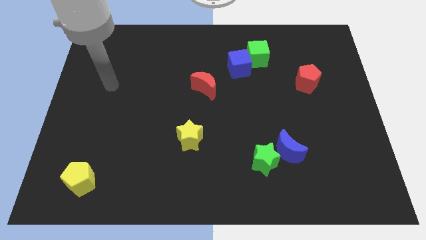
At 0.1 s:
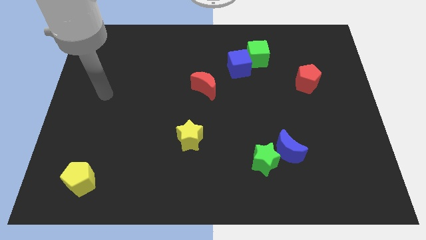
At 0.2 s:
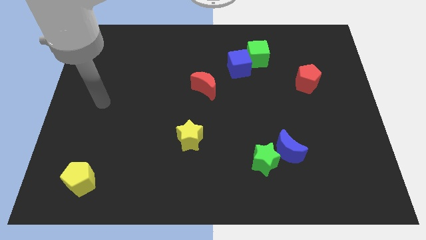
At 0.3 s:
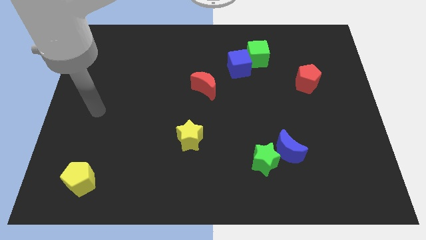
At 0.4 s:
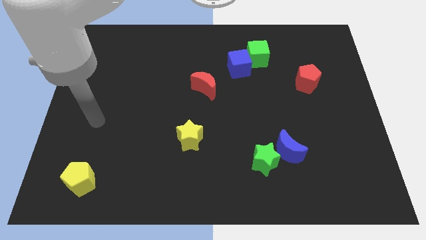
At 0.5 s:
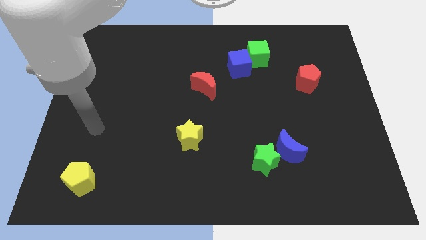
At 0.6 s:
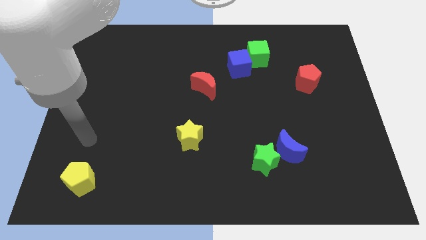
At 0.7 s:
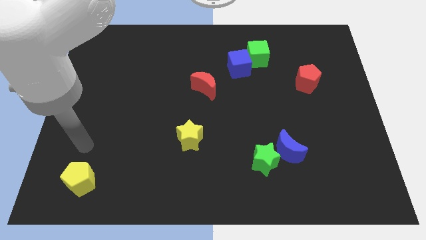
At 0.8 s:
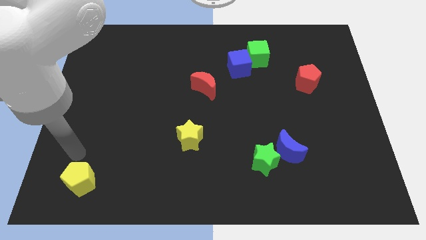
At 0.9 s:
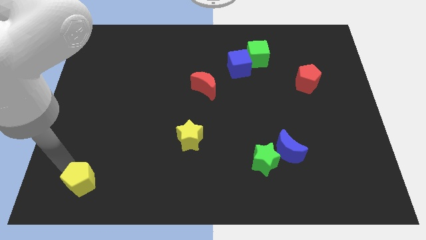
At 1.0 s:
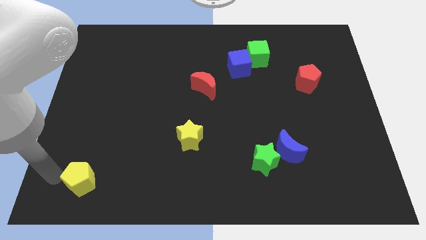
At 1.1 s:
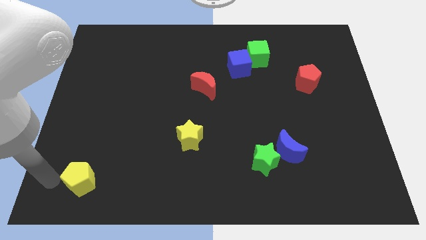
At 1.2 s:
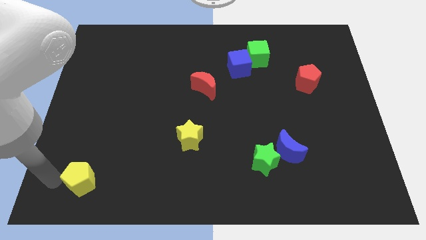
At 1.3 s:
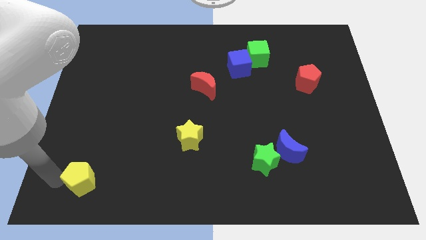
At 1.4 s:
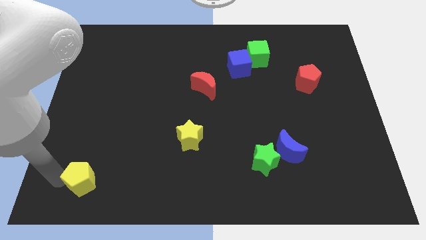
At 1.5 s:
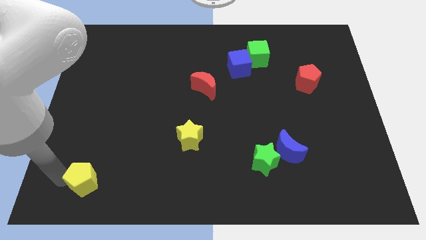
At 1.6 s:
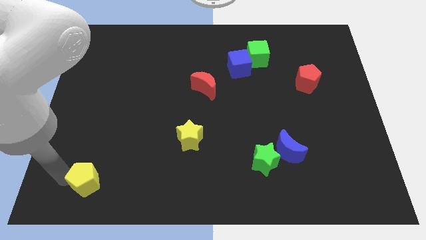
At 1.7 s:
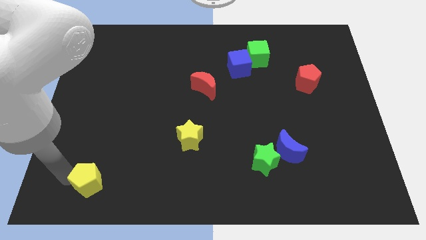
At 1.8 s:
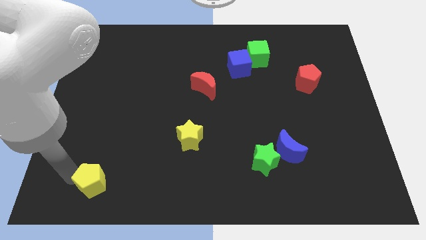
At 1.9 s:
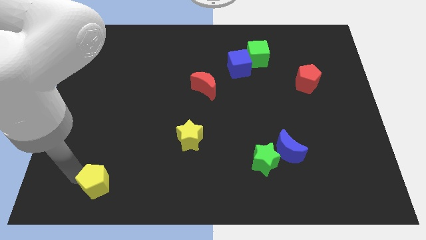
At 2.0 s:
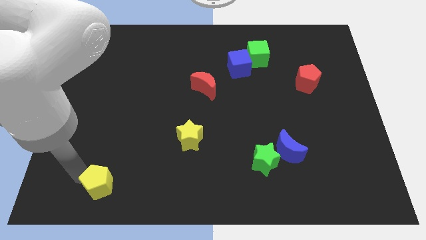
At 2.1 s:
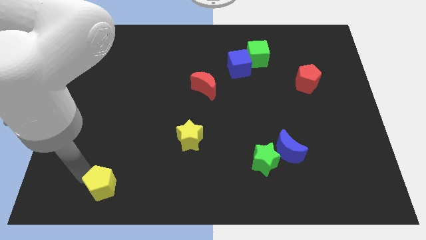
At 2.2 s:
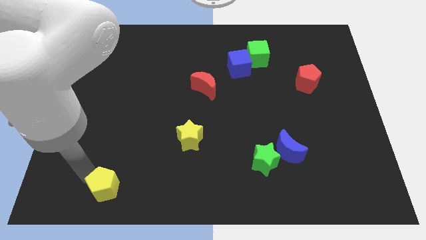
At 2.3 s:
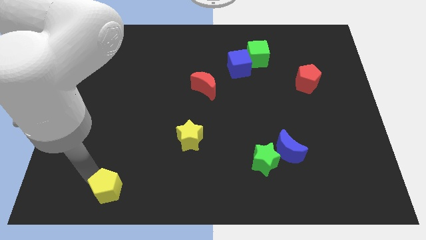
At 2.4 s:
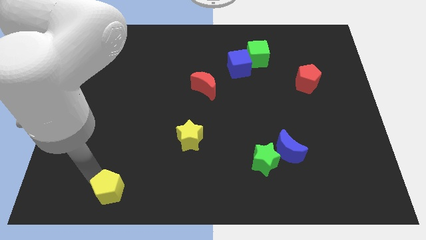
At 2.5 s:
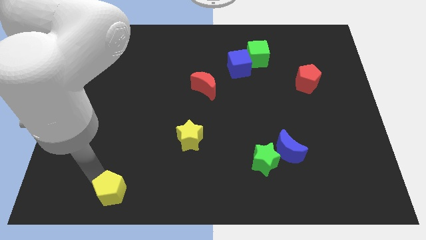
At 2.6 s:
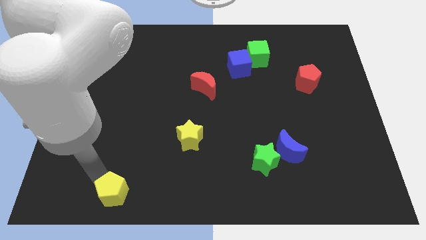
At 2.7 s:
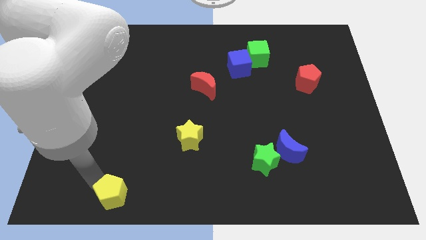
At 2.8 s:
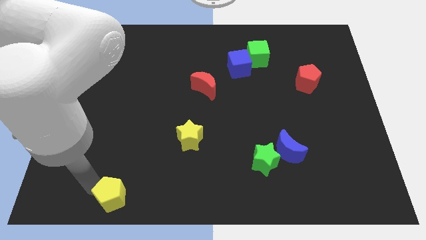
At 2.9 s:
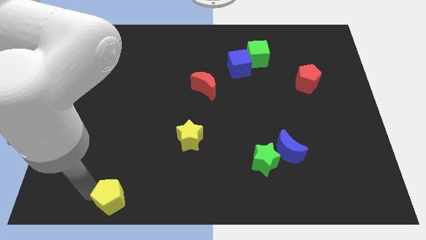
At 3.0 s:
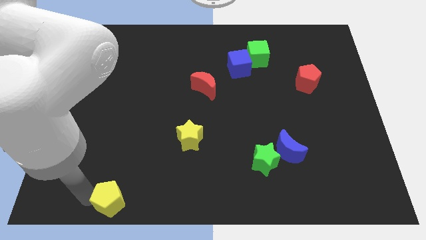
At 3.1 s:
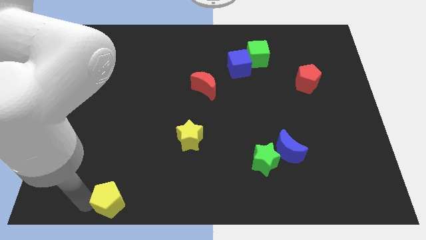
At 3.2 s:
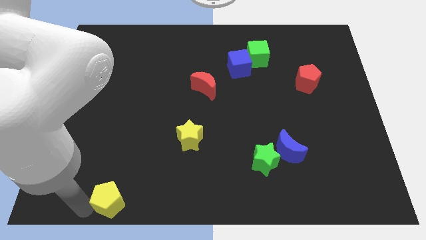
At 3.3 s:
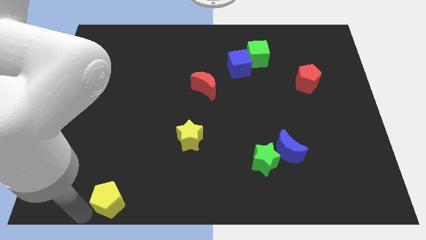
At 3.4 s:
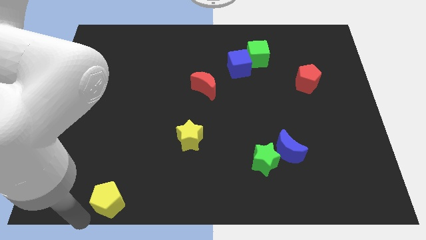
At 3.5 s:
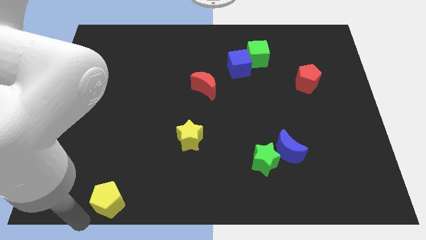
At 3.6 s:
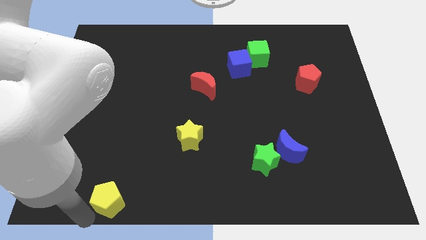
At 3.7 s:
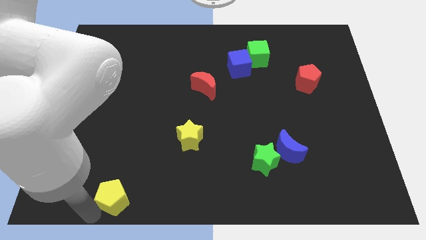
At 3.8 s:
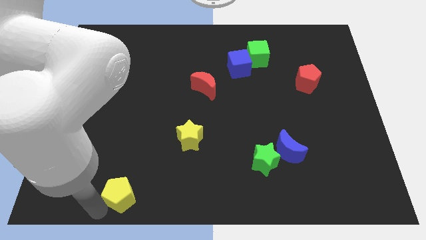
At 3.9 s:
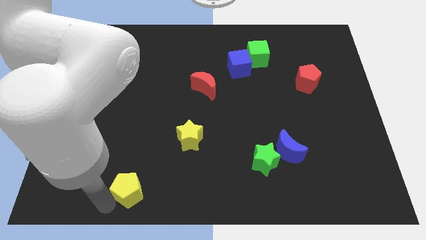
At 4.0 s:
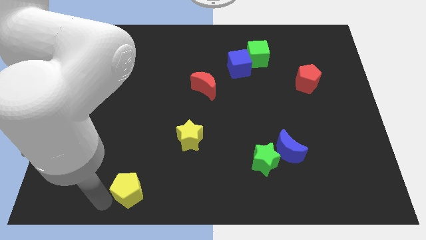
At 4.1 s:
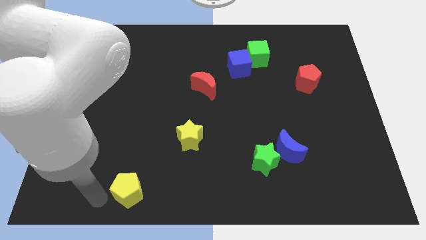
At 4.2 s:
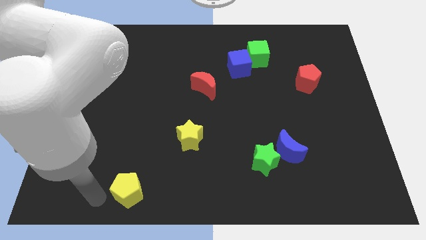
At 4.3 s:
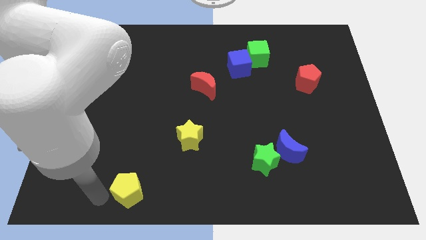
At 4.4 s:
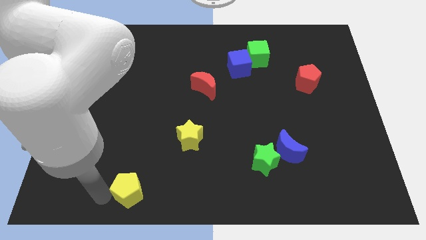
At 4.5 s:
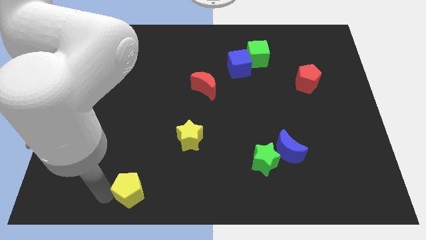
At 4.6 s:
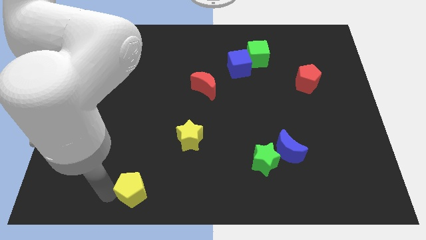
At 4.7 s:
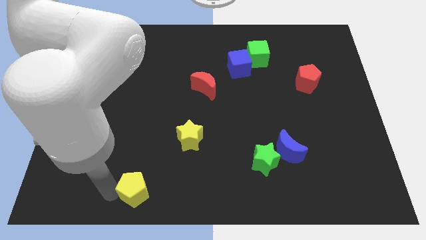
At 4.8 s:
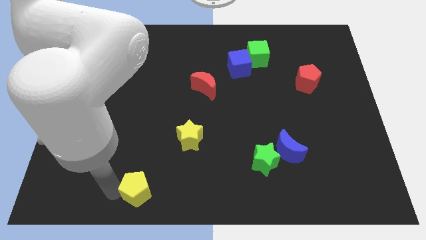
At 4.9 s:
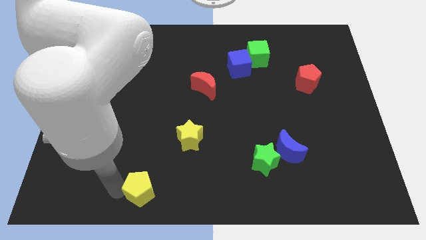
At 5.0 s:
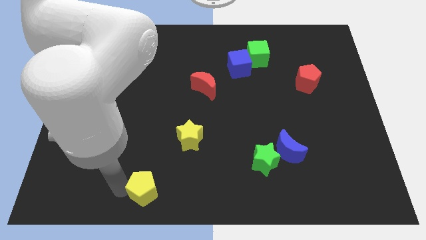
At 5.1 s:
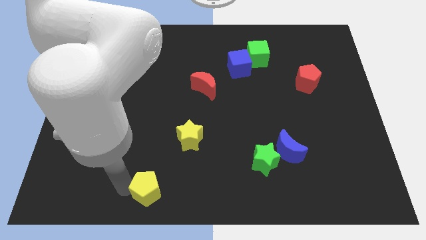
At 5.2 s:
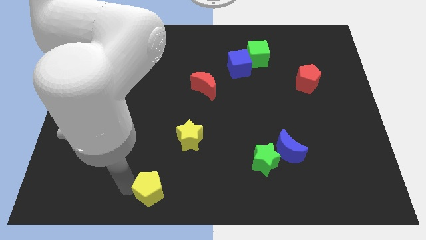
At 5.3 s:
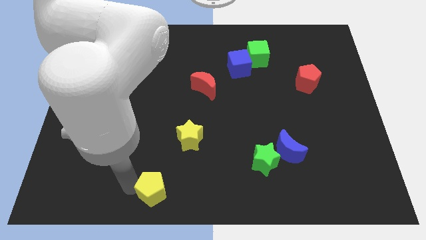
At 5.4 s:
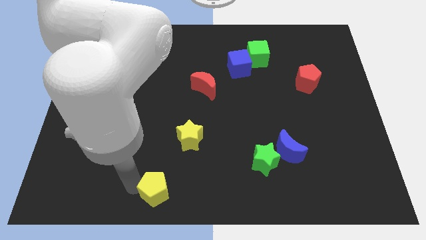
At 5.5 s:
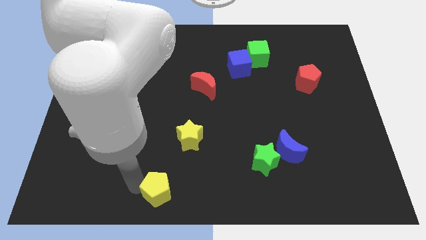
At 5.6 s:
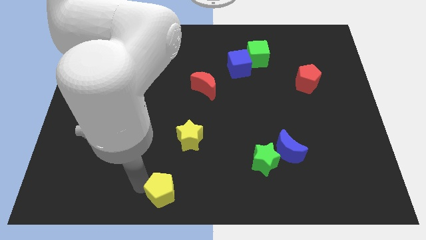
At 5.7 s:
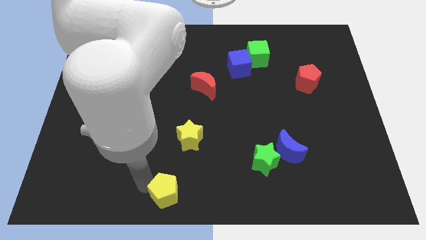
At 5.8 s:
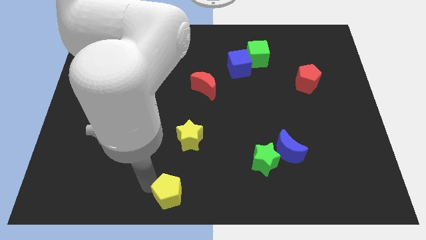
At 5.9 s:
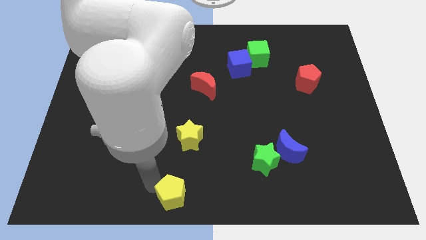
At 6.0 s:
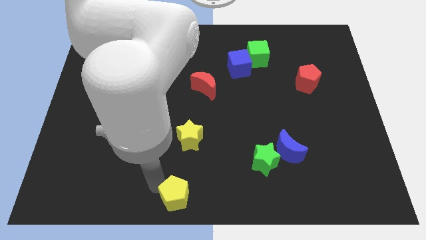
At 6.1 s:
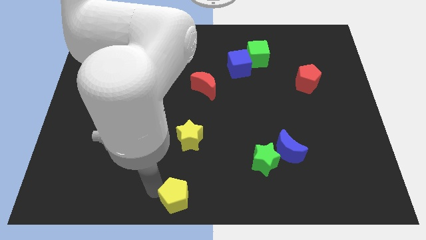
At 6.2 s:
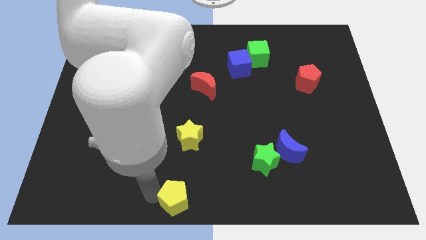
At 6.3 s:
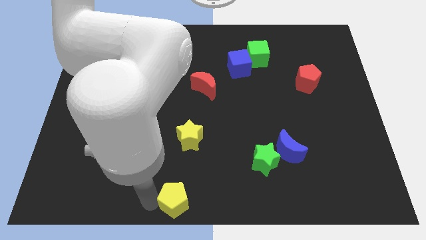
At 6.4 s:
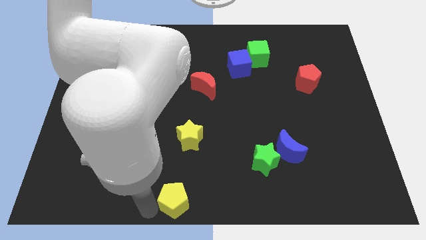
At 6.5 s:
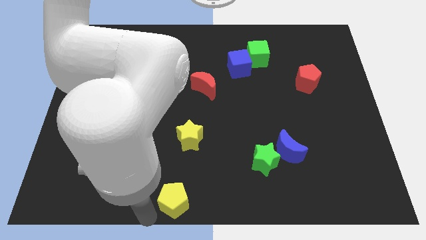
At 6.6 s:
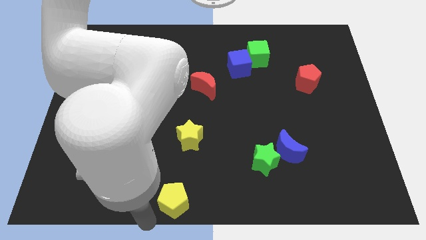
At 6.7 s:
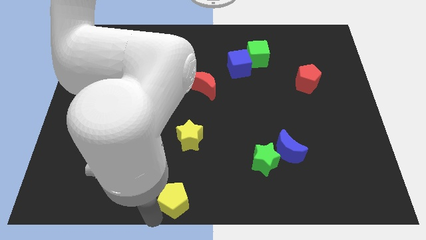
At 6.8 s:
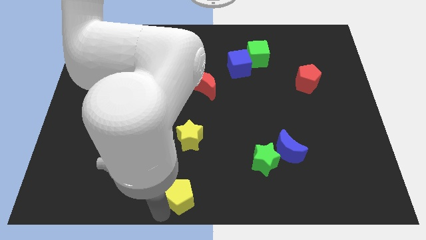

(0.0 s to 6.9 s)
push the yellow pentagon right

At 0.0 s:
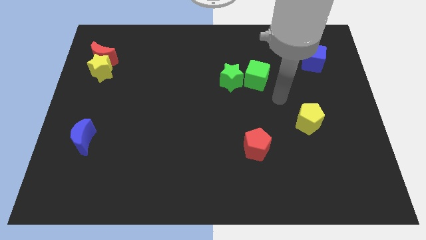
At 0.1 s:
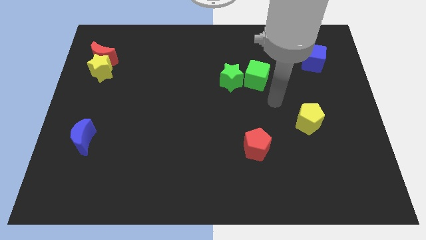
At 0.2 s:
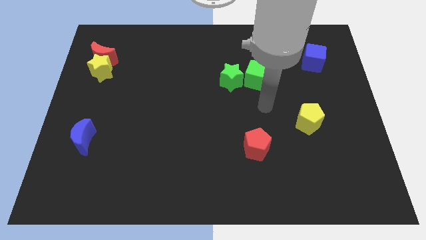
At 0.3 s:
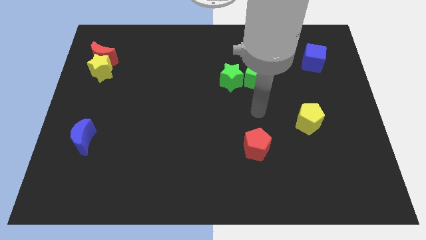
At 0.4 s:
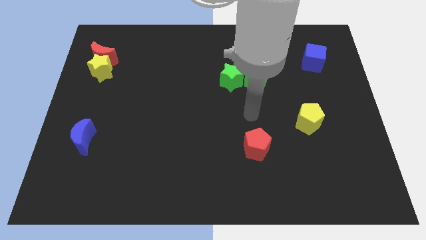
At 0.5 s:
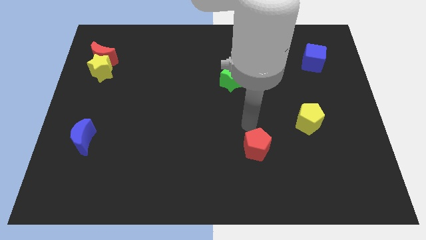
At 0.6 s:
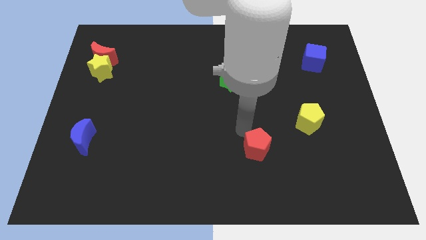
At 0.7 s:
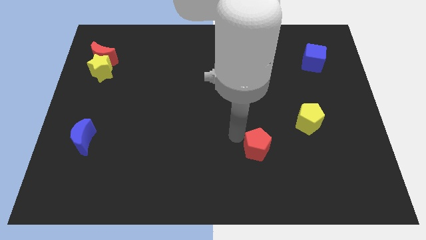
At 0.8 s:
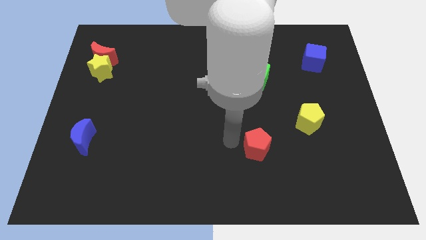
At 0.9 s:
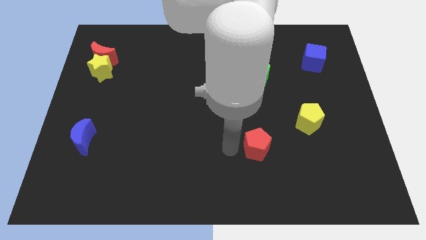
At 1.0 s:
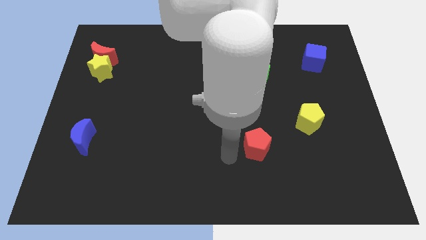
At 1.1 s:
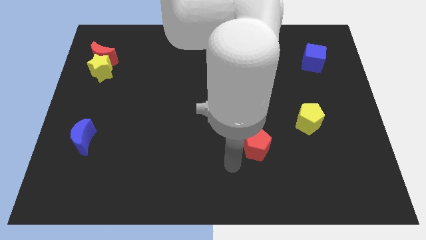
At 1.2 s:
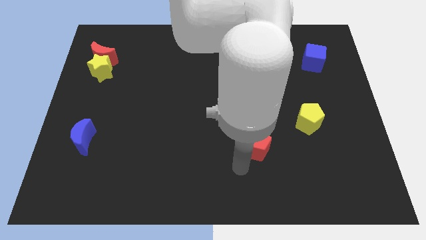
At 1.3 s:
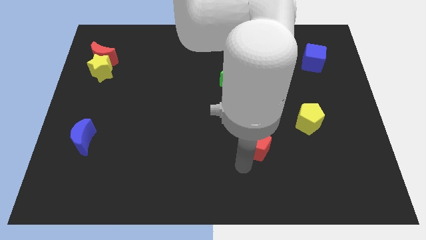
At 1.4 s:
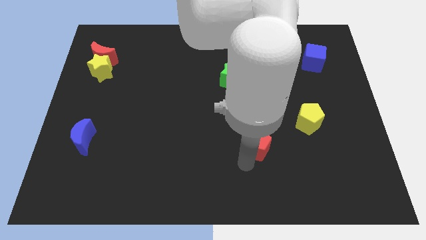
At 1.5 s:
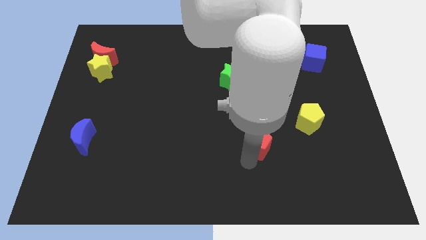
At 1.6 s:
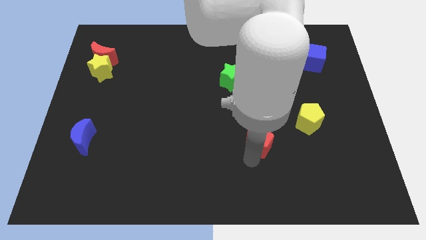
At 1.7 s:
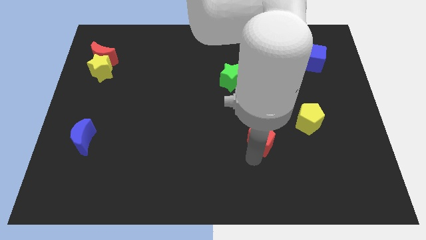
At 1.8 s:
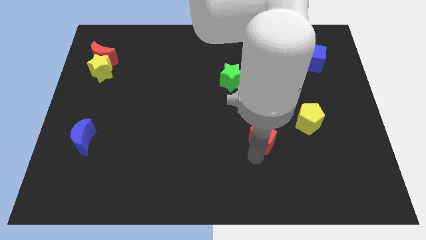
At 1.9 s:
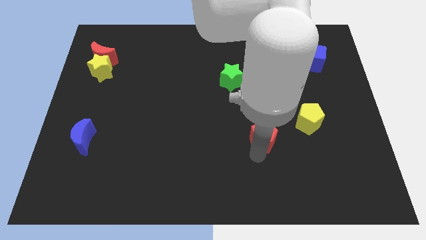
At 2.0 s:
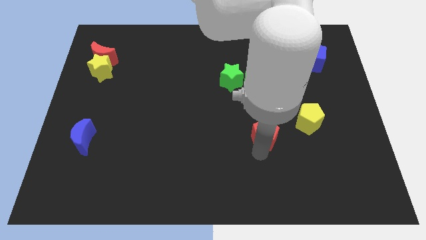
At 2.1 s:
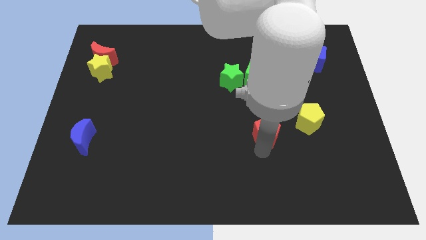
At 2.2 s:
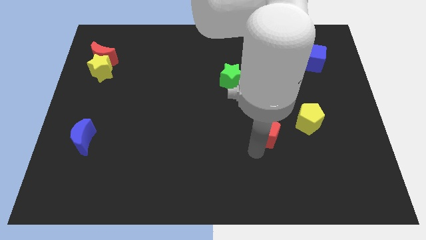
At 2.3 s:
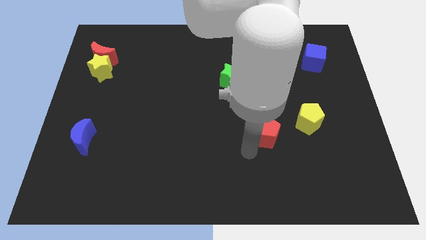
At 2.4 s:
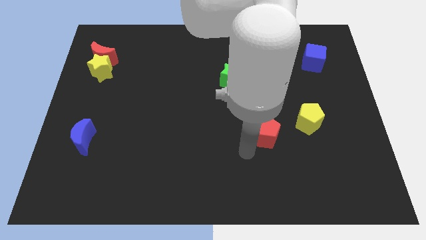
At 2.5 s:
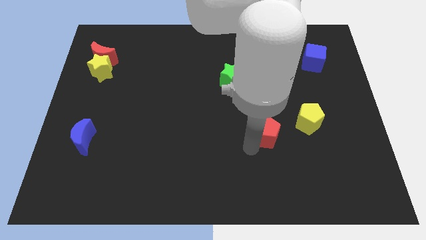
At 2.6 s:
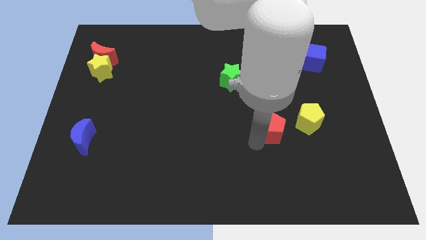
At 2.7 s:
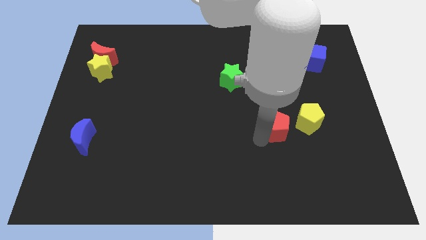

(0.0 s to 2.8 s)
push the red pentagon up and to the right a bit
